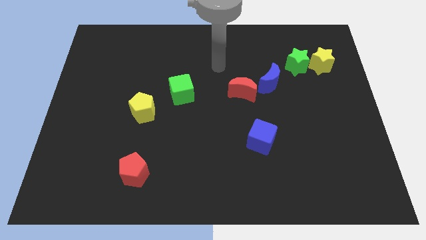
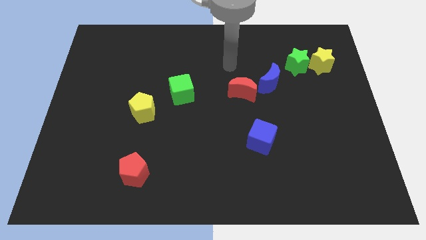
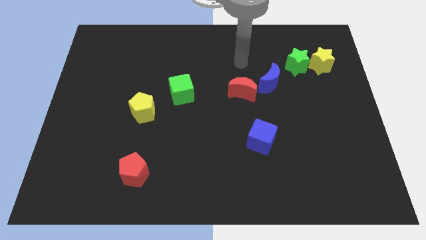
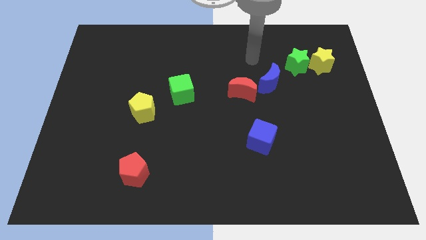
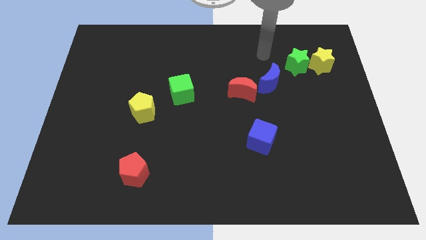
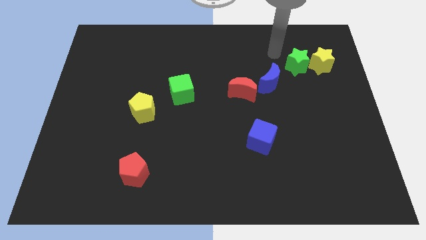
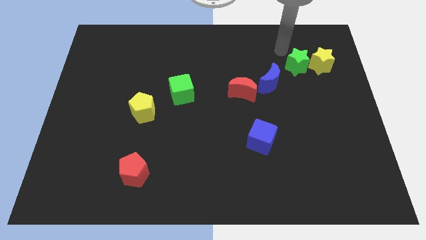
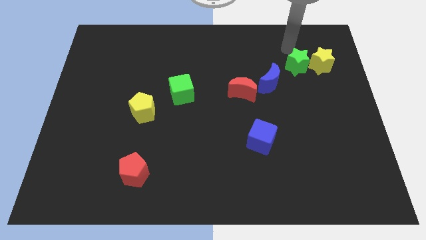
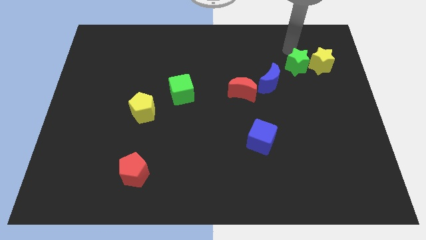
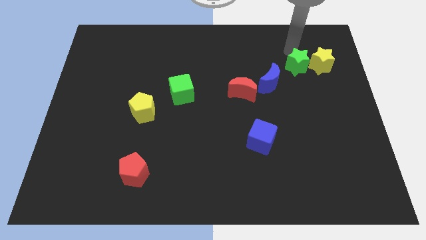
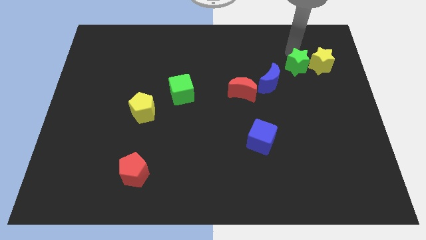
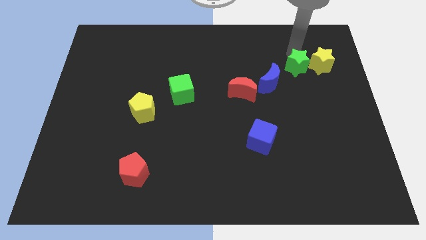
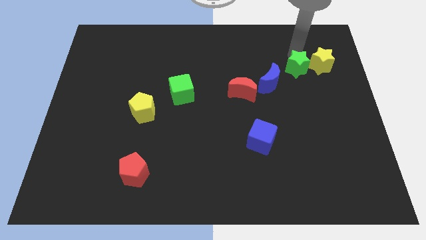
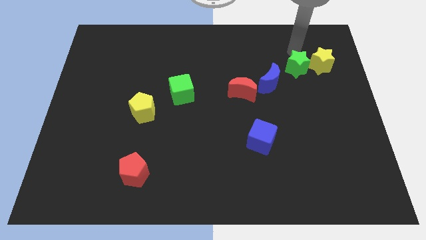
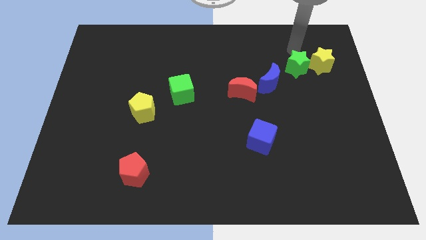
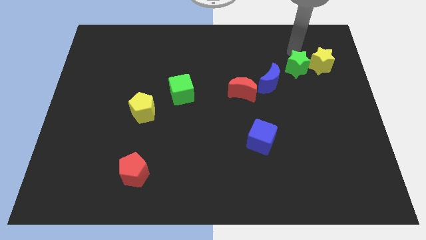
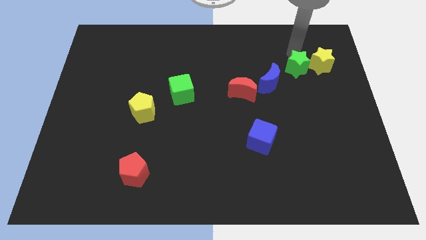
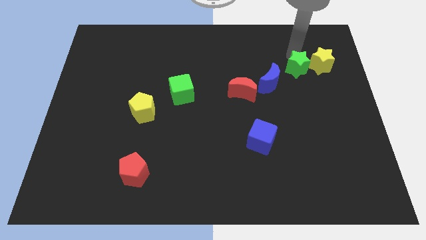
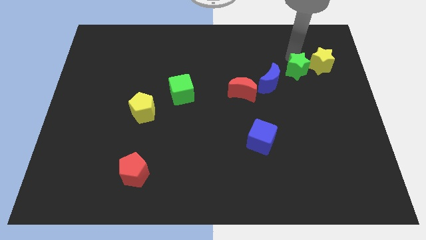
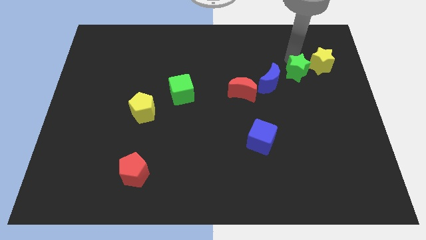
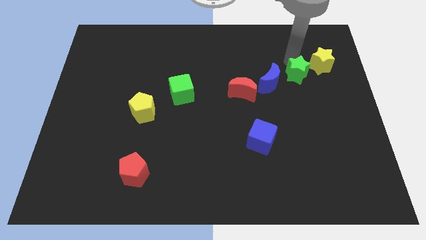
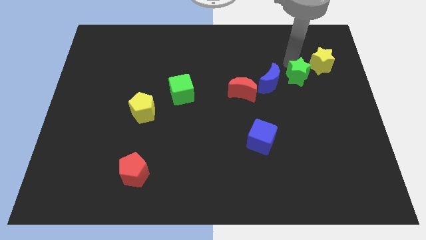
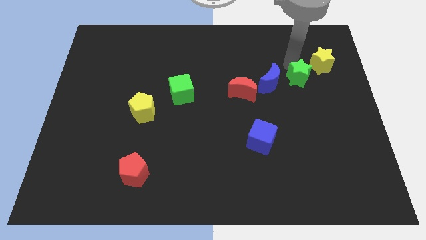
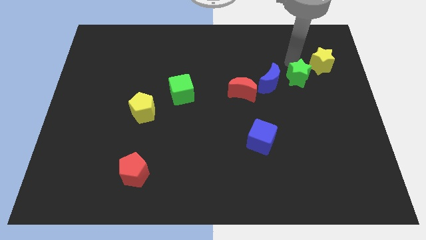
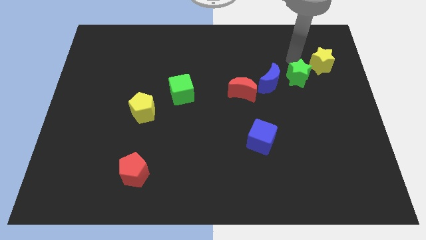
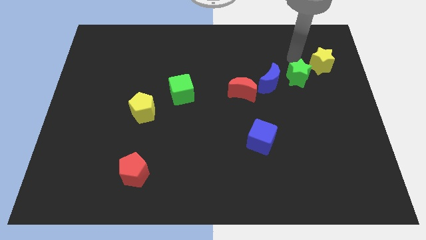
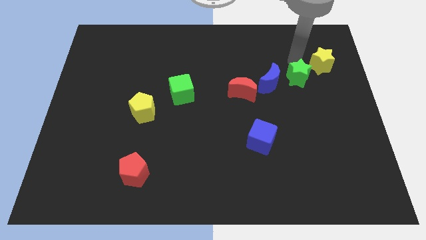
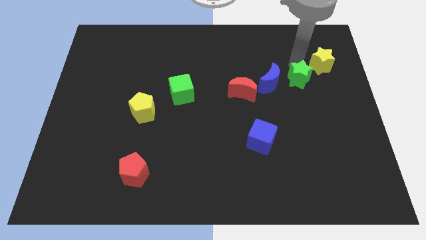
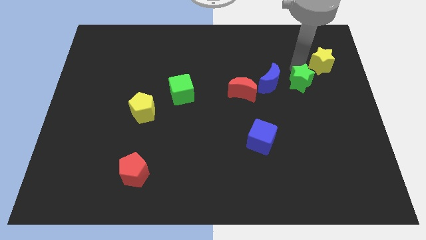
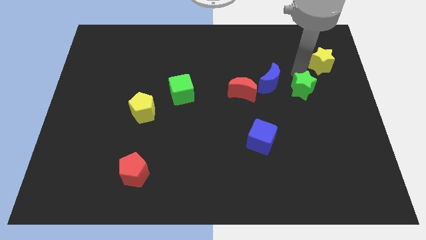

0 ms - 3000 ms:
push the green star somewhat down

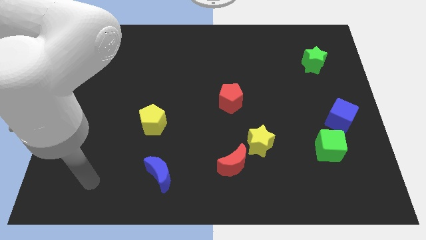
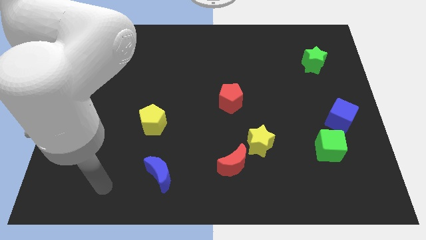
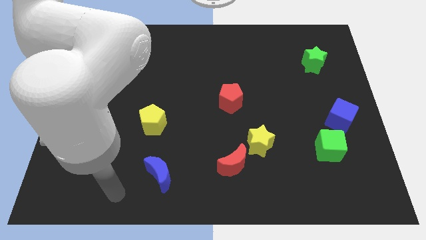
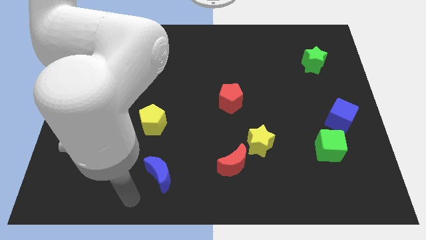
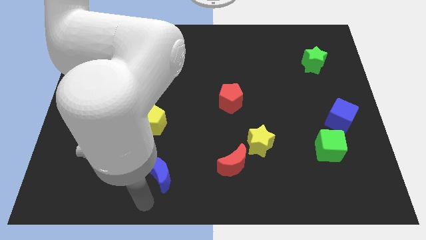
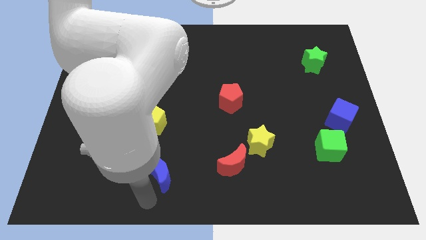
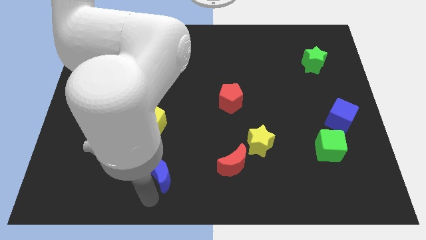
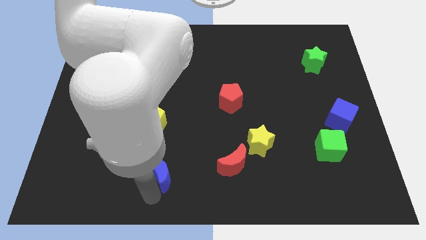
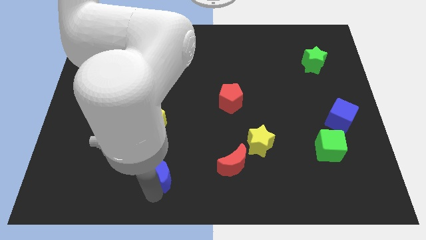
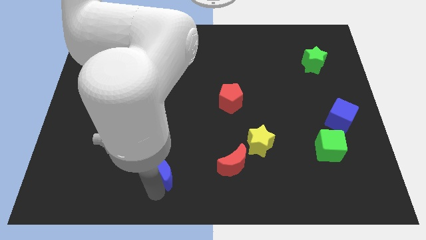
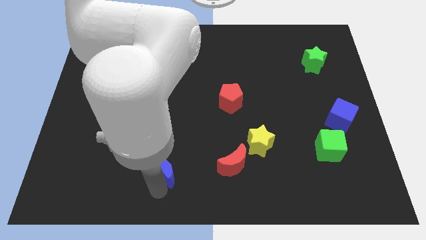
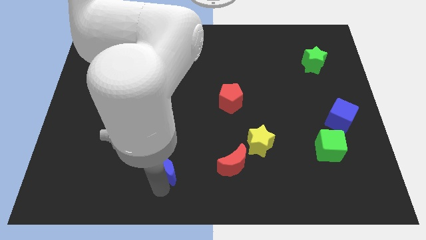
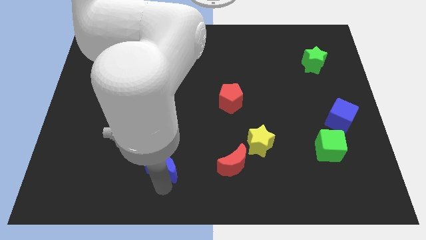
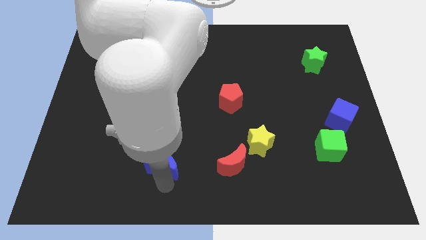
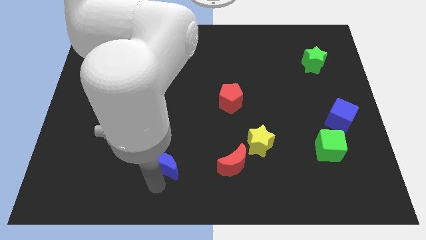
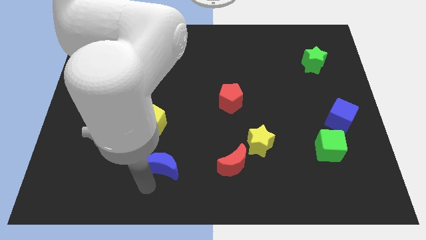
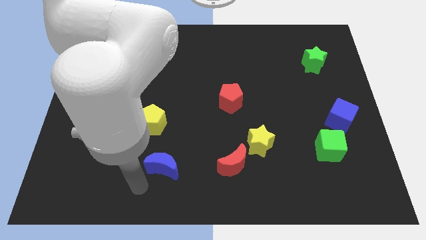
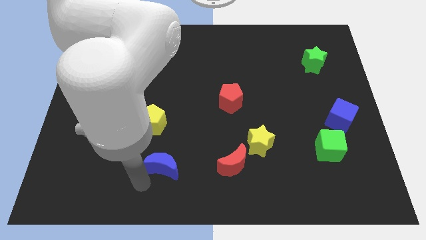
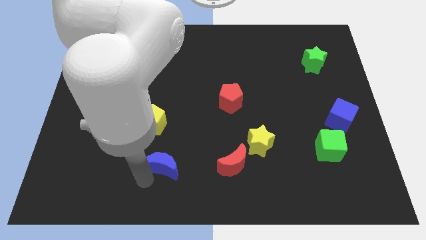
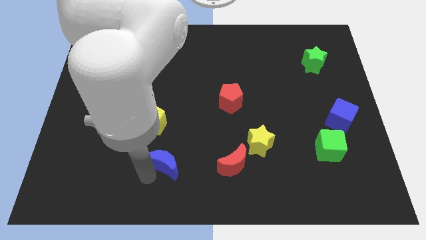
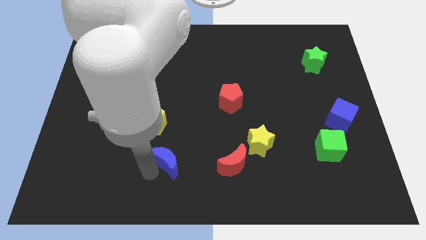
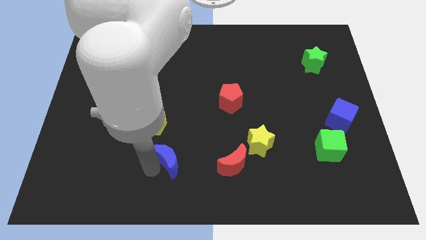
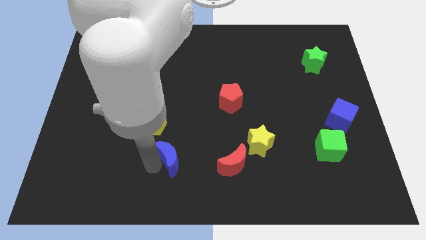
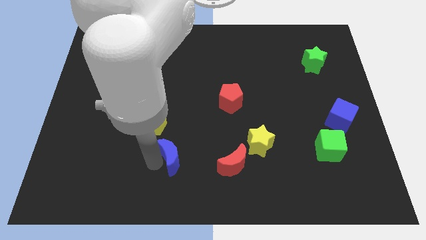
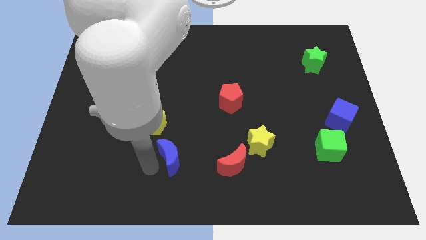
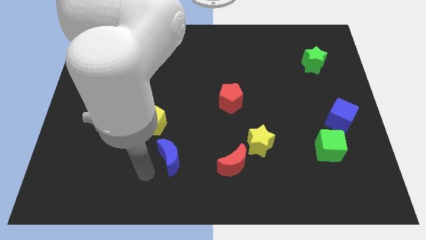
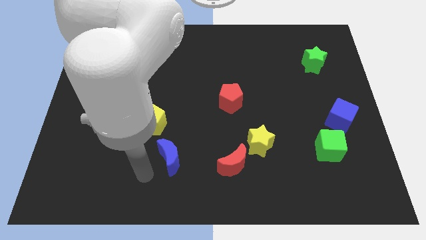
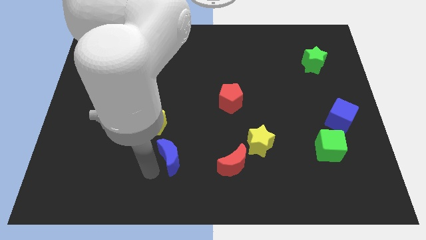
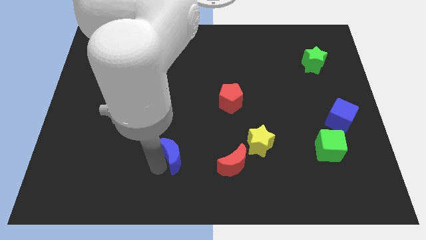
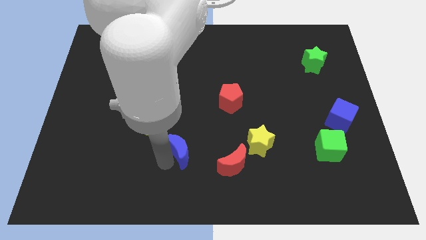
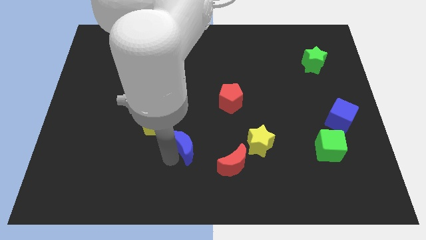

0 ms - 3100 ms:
move the blue moon somewhat up and then right

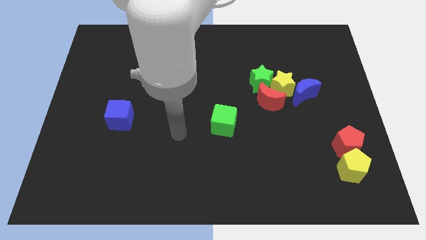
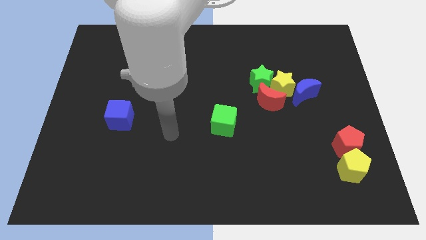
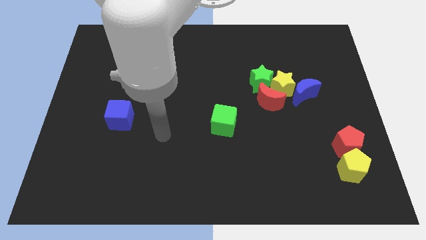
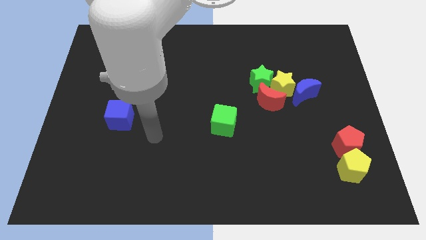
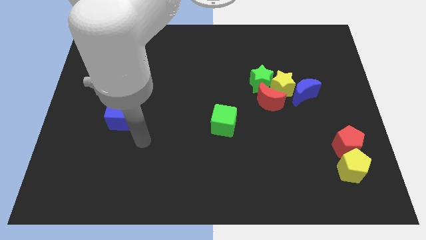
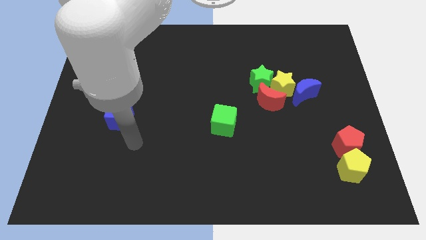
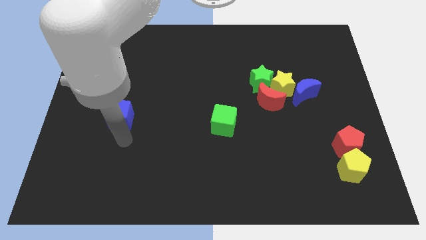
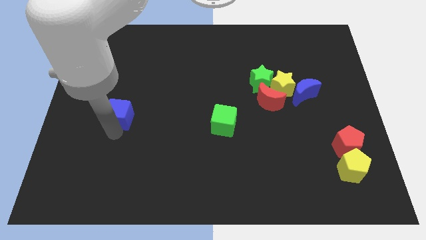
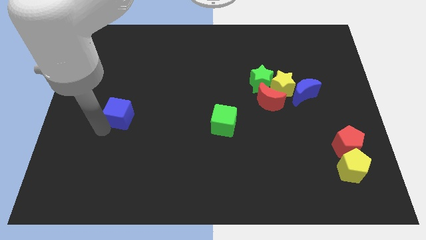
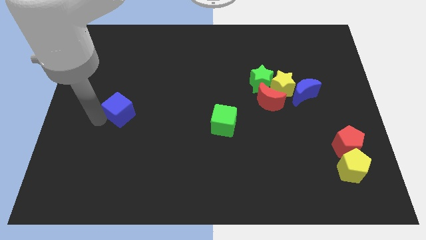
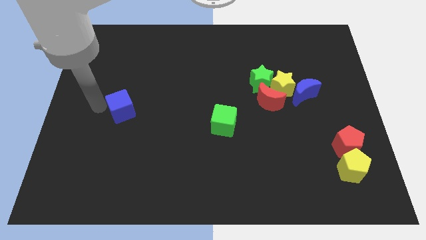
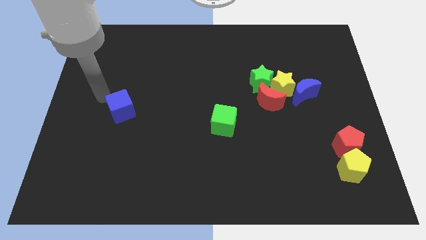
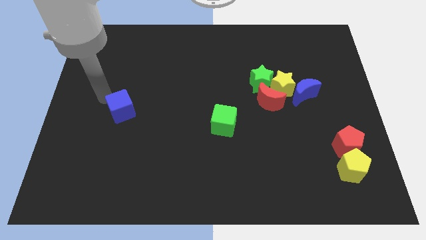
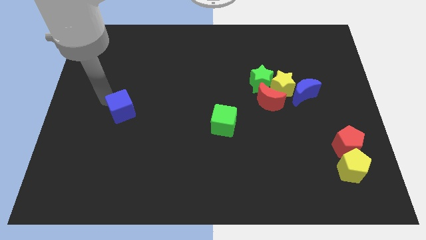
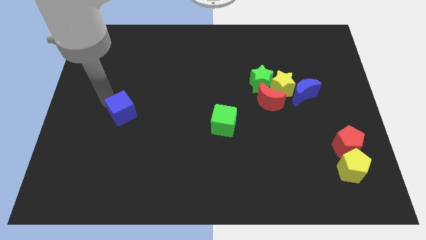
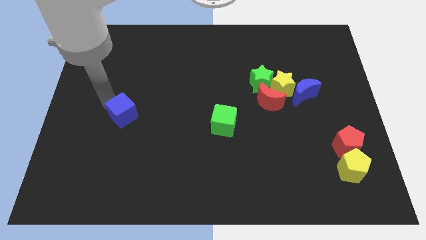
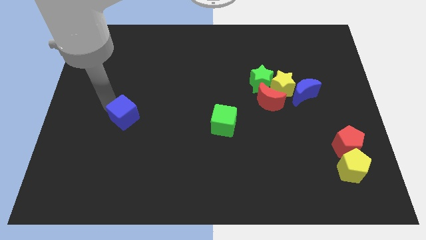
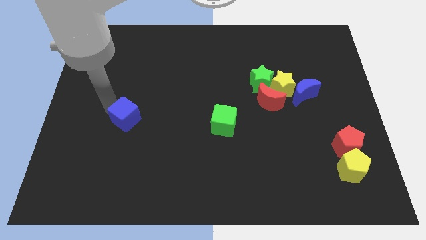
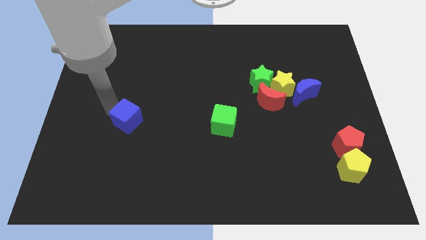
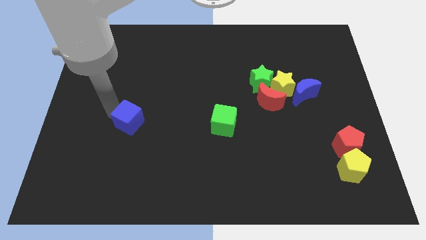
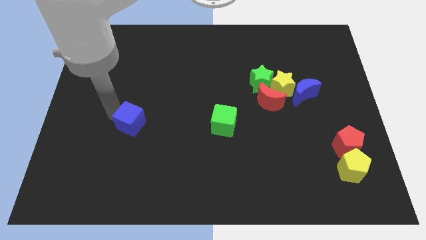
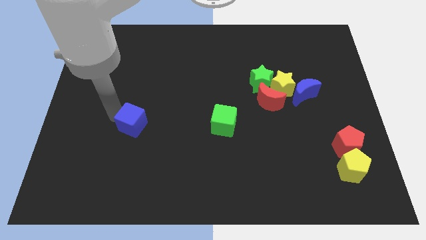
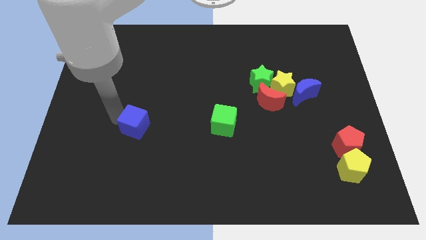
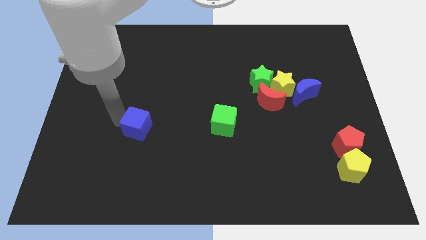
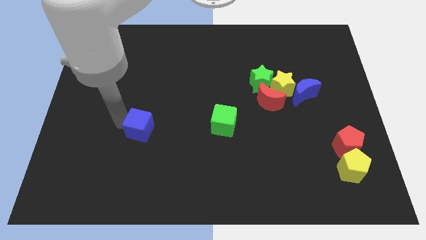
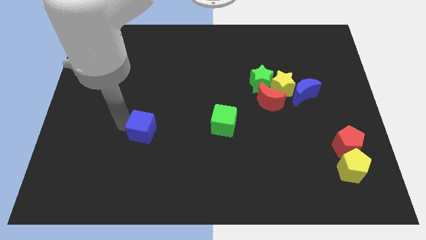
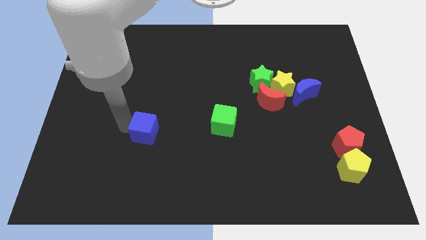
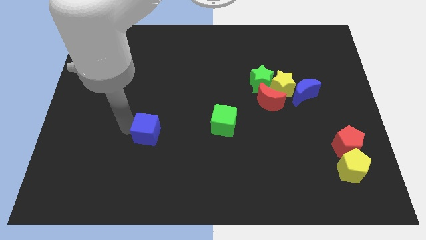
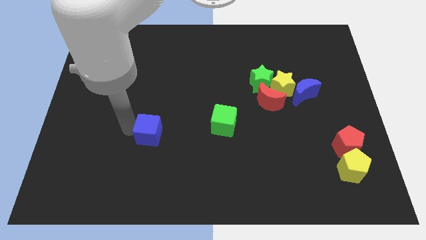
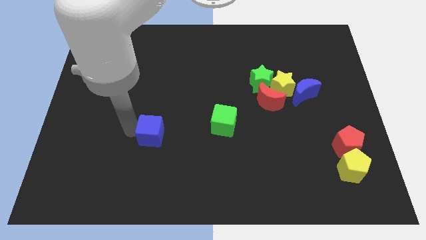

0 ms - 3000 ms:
move the blue cube a bit right
